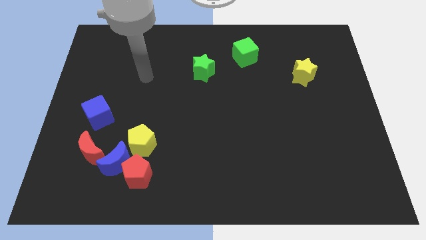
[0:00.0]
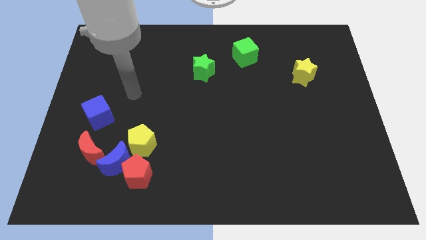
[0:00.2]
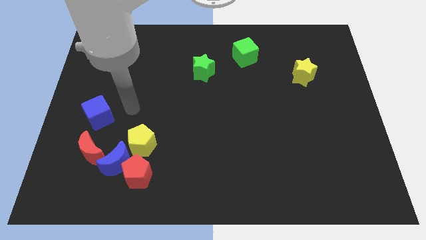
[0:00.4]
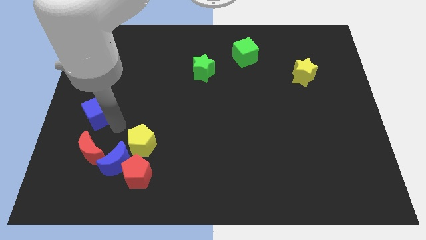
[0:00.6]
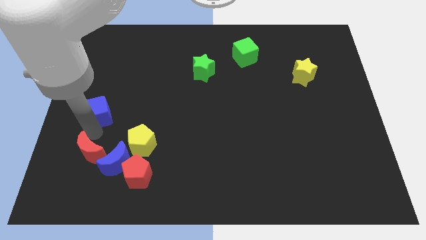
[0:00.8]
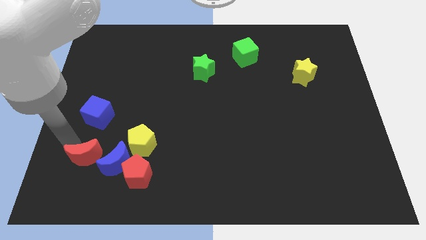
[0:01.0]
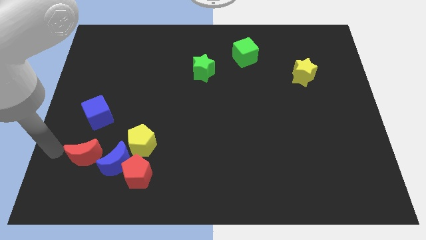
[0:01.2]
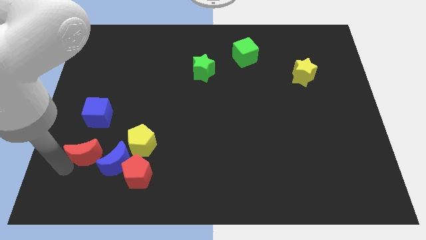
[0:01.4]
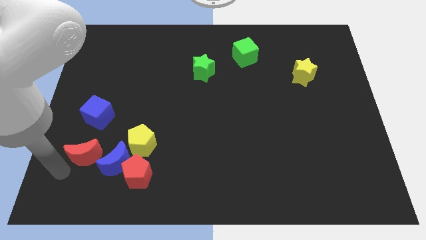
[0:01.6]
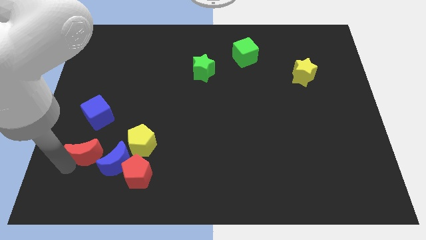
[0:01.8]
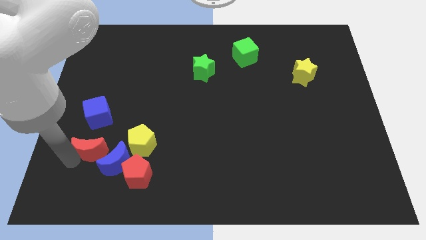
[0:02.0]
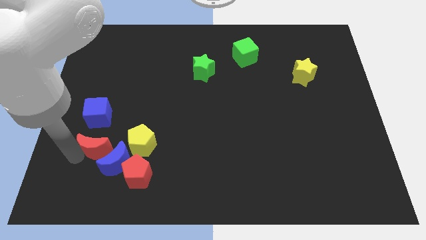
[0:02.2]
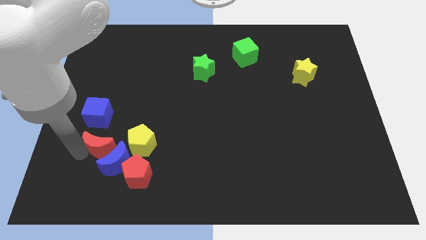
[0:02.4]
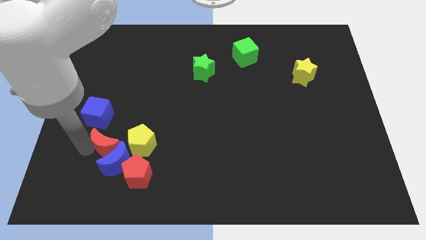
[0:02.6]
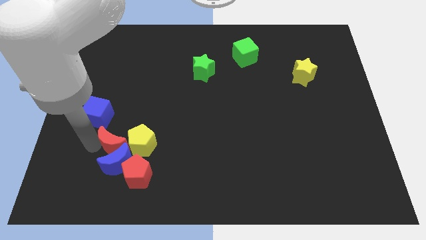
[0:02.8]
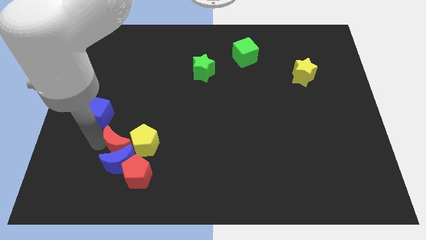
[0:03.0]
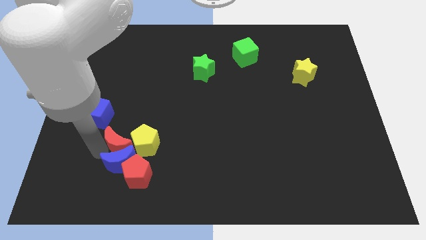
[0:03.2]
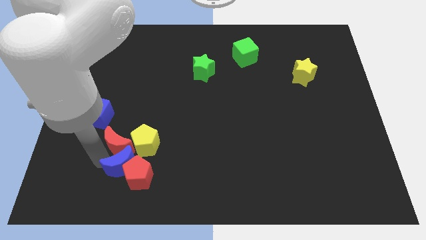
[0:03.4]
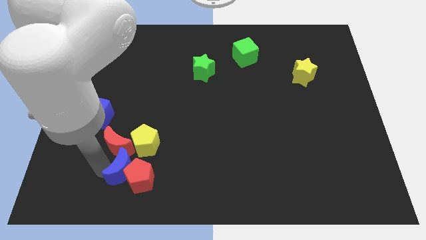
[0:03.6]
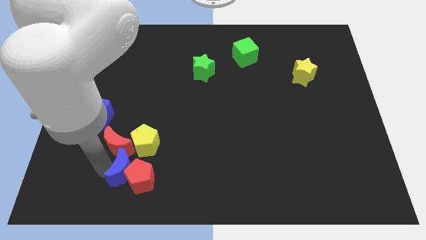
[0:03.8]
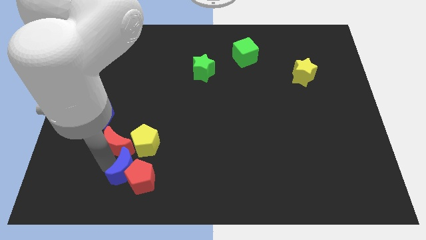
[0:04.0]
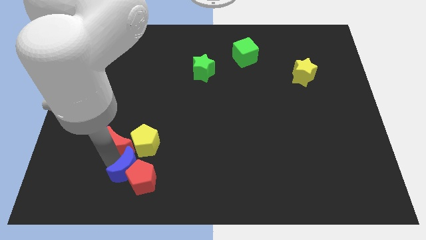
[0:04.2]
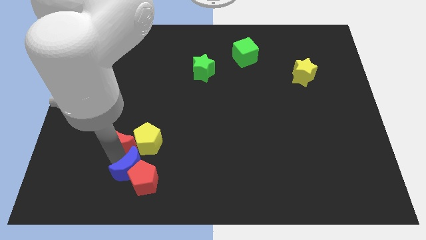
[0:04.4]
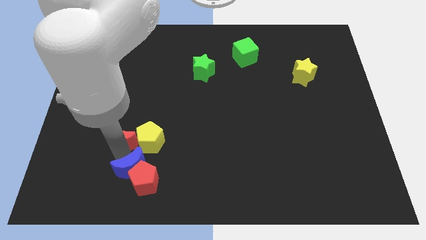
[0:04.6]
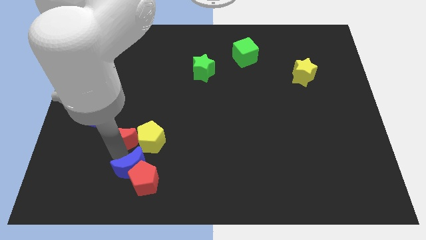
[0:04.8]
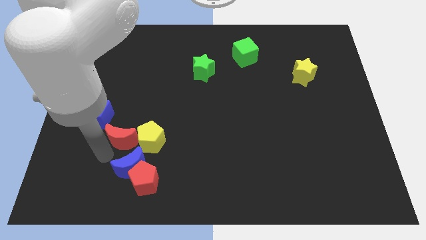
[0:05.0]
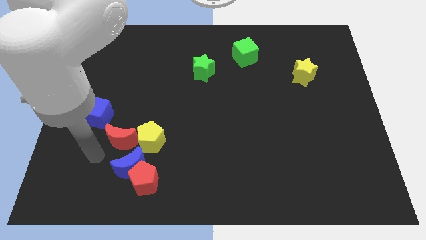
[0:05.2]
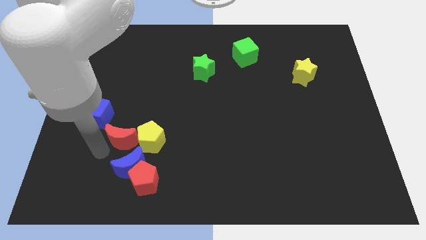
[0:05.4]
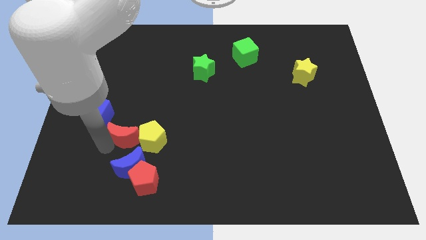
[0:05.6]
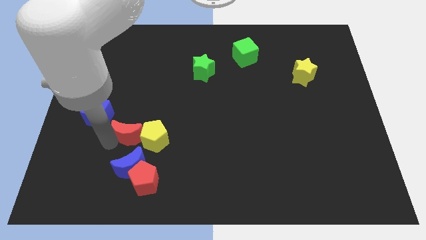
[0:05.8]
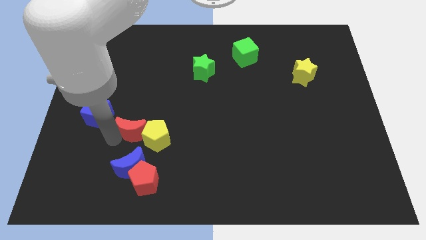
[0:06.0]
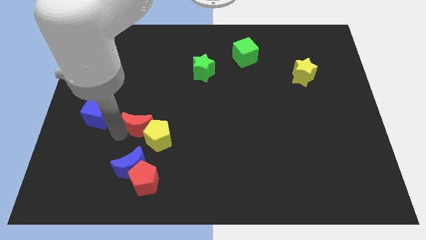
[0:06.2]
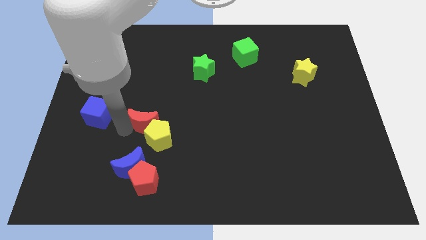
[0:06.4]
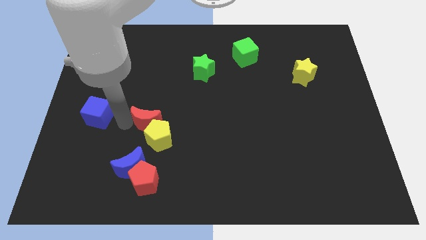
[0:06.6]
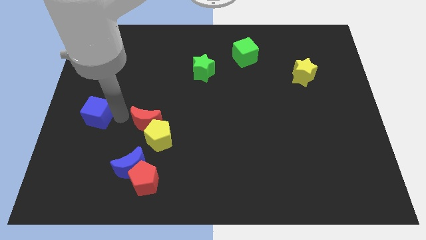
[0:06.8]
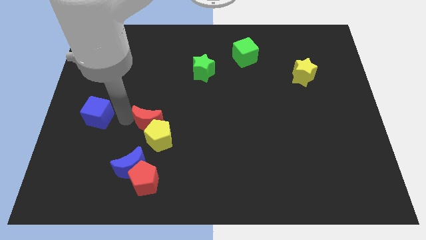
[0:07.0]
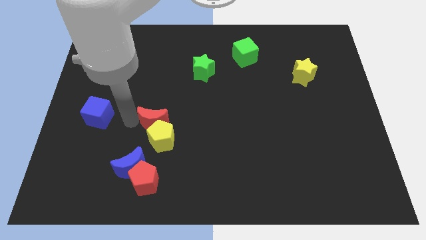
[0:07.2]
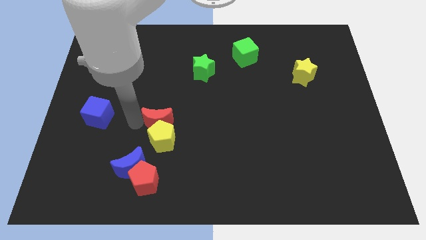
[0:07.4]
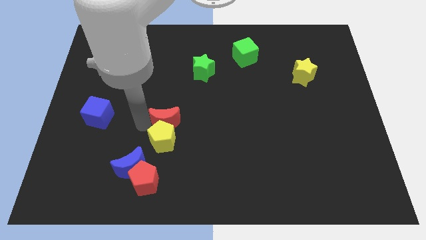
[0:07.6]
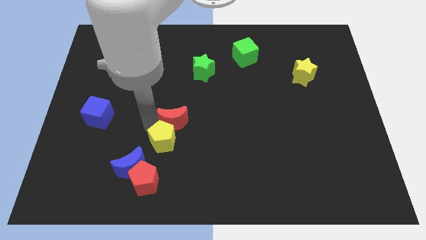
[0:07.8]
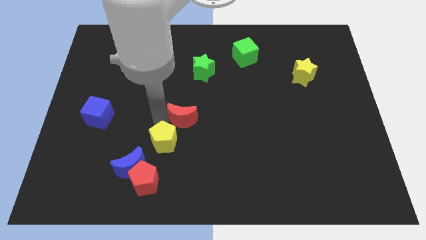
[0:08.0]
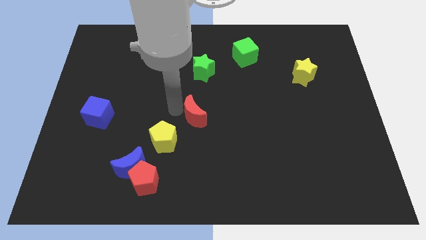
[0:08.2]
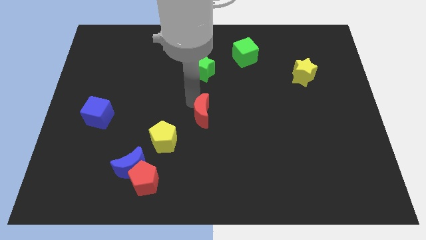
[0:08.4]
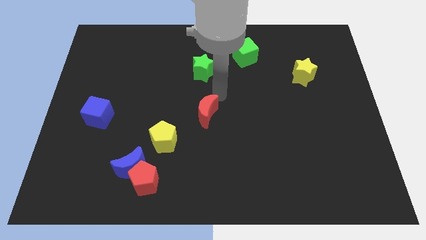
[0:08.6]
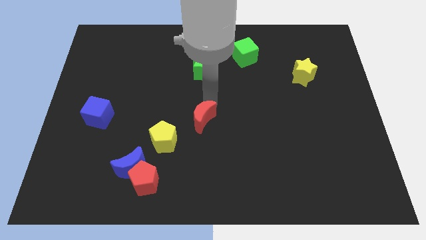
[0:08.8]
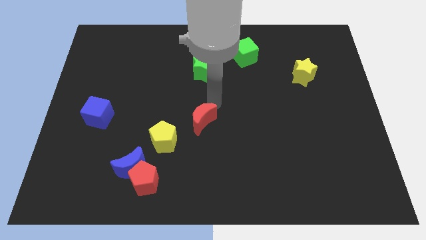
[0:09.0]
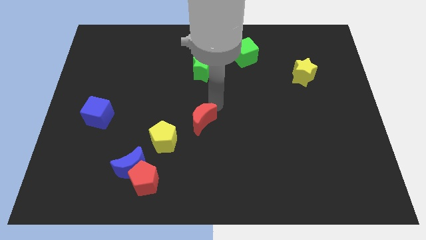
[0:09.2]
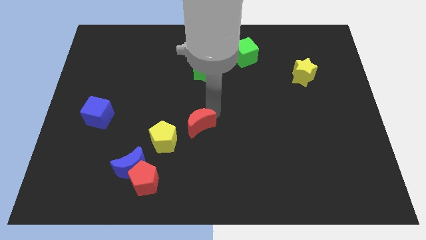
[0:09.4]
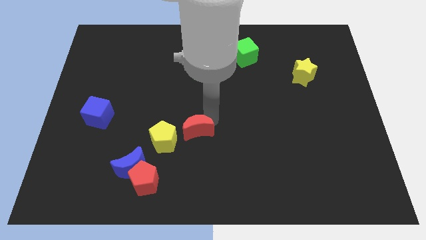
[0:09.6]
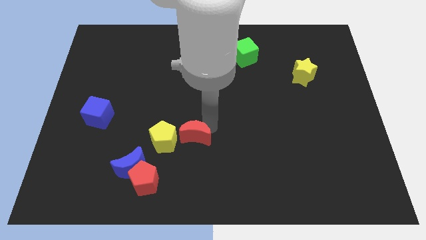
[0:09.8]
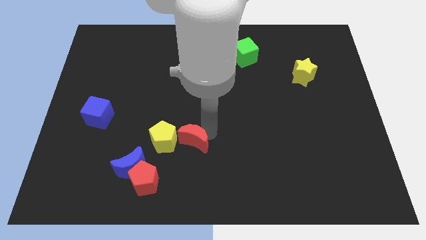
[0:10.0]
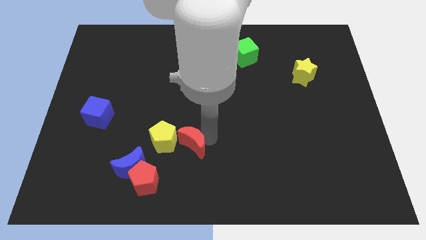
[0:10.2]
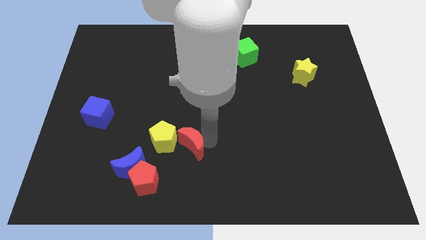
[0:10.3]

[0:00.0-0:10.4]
move the red moon to the top right of the red pentagon

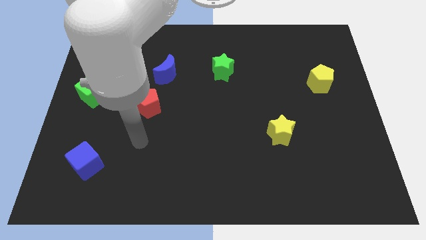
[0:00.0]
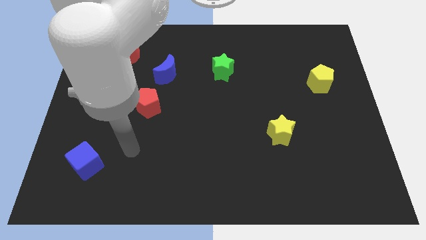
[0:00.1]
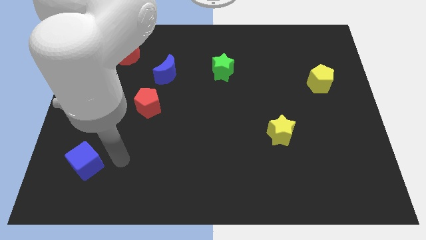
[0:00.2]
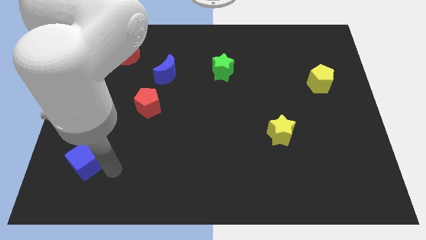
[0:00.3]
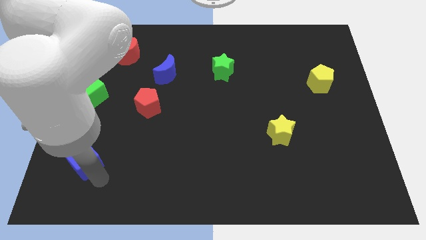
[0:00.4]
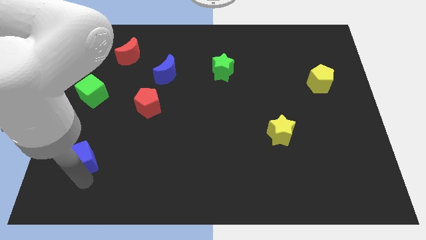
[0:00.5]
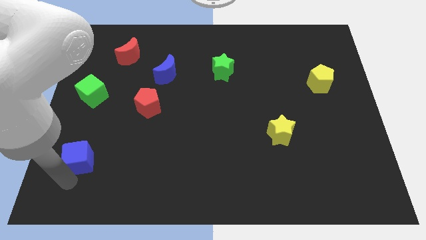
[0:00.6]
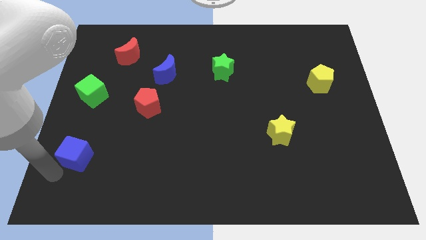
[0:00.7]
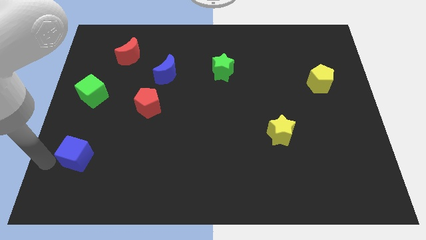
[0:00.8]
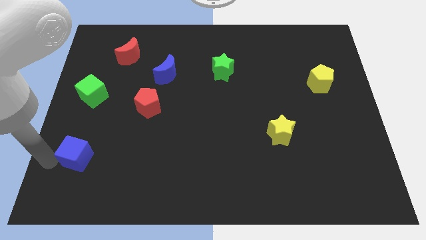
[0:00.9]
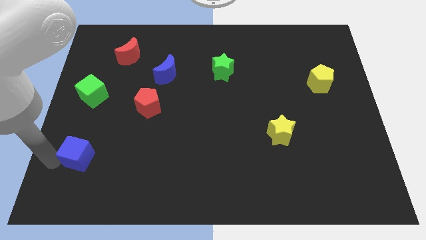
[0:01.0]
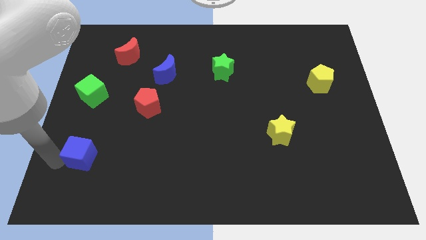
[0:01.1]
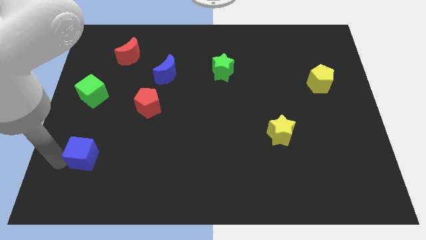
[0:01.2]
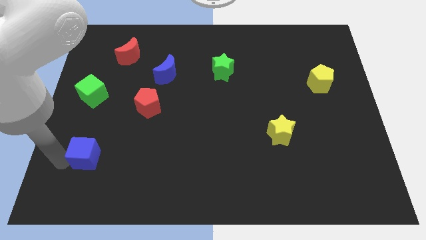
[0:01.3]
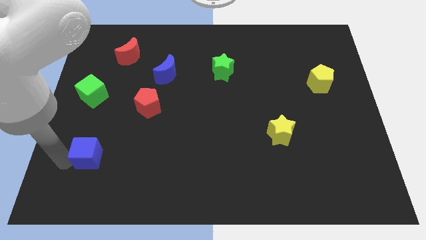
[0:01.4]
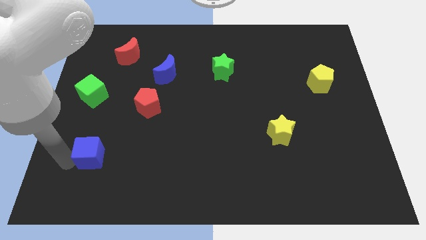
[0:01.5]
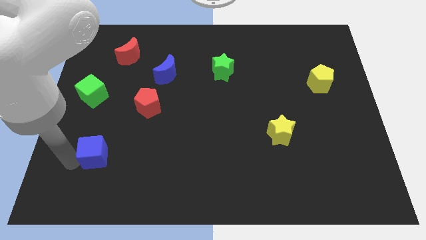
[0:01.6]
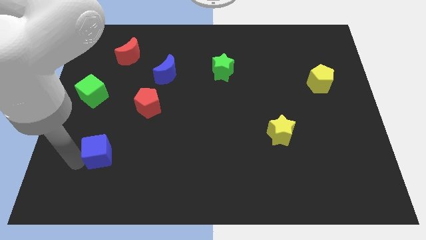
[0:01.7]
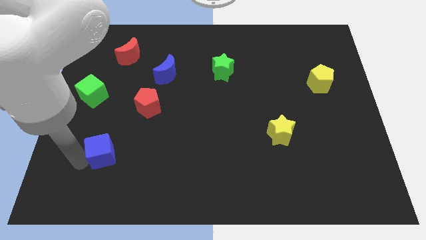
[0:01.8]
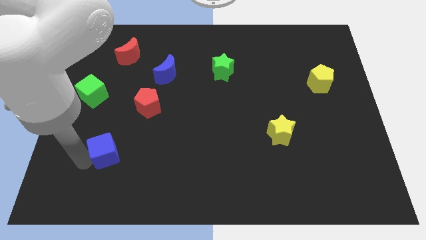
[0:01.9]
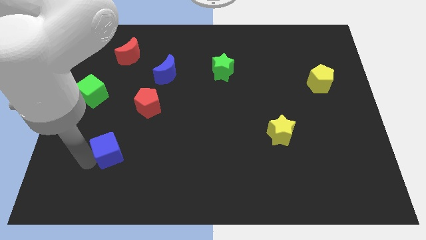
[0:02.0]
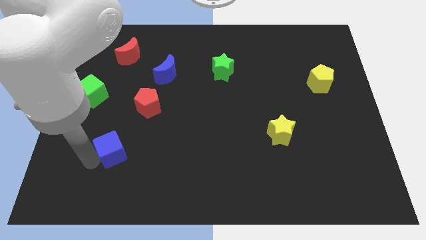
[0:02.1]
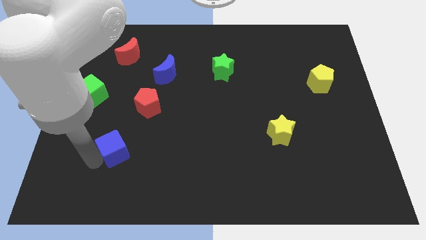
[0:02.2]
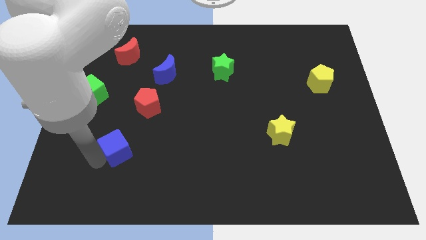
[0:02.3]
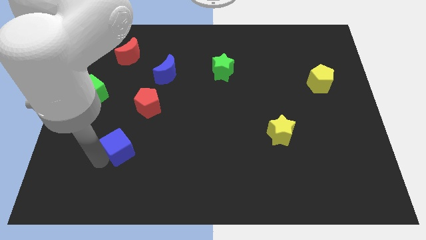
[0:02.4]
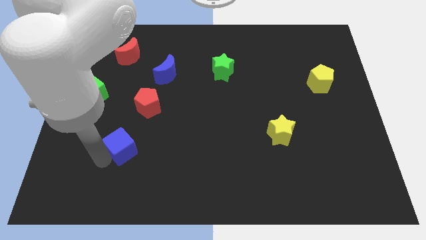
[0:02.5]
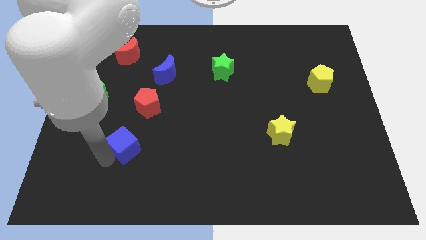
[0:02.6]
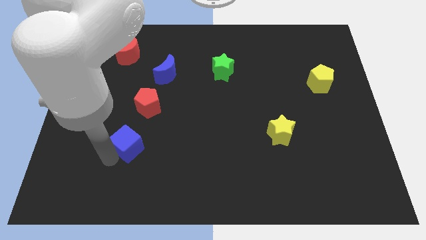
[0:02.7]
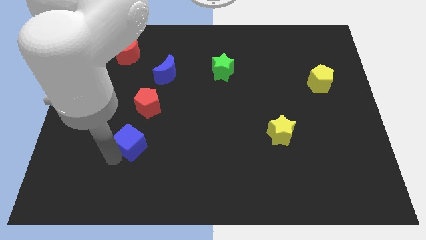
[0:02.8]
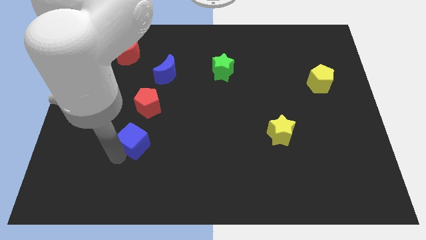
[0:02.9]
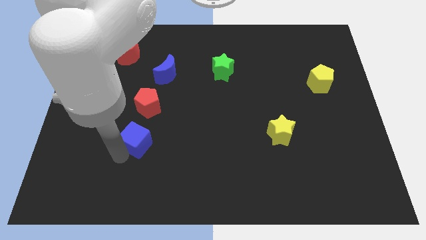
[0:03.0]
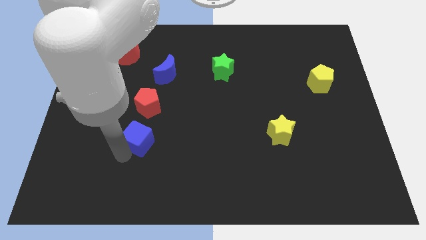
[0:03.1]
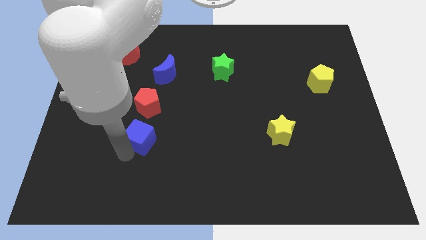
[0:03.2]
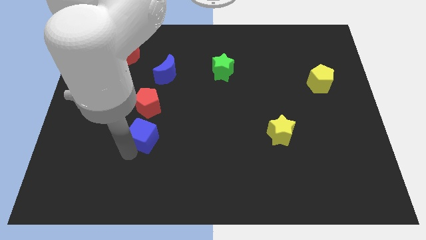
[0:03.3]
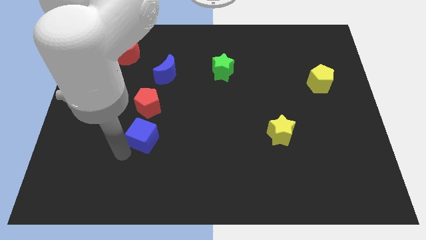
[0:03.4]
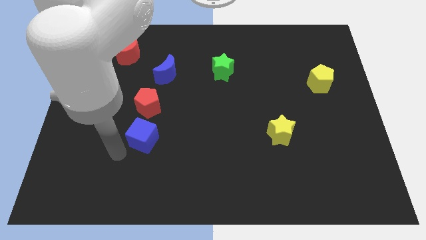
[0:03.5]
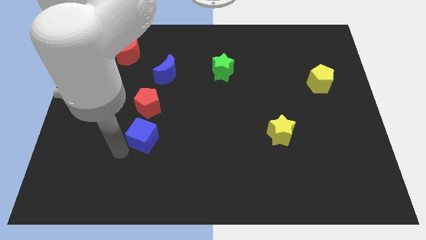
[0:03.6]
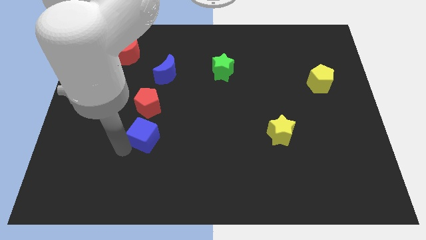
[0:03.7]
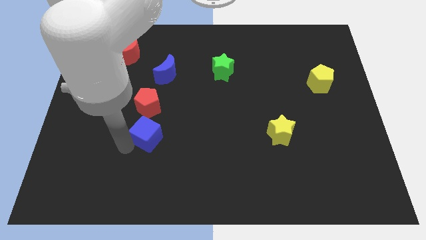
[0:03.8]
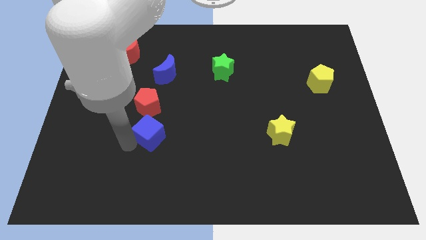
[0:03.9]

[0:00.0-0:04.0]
slide the blue cube to the bottom right of the red pentagon
